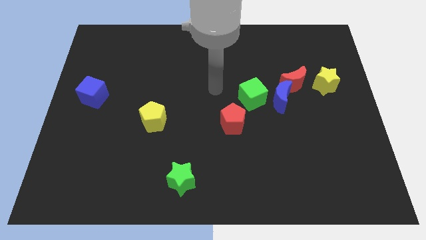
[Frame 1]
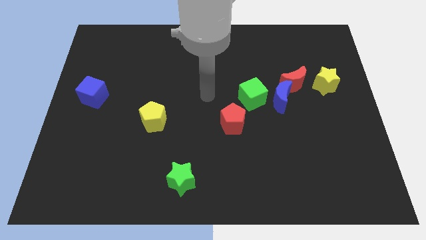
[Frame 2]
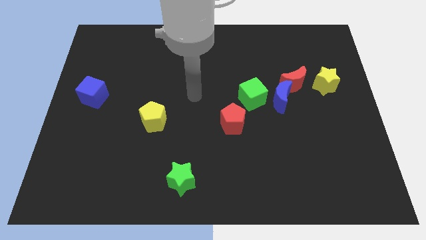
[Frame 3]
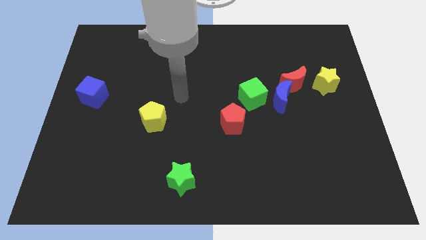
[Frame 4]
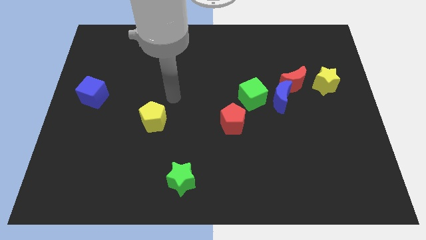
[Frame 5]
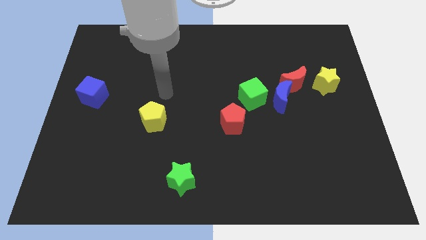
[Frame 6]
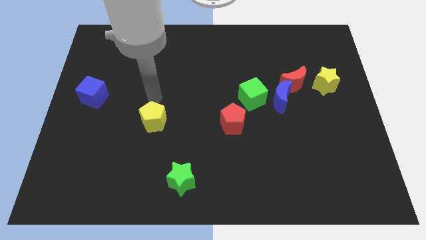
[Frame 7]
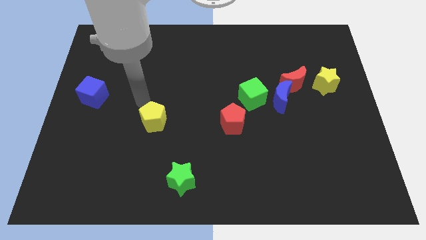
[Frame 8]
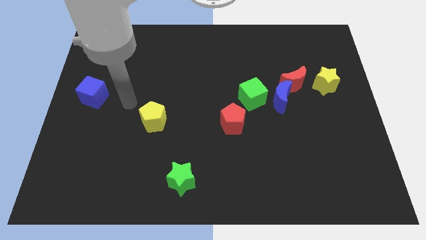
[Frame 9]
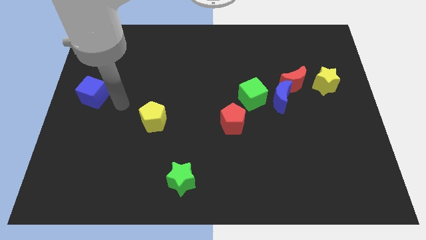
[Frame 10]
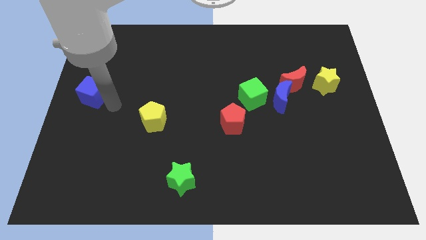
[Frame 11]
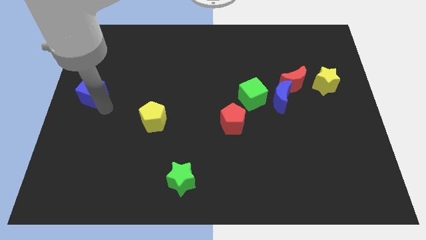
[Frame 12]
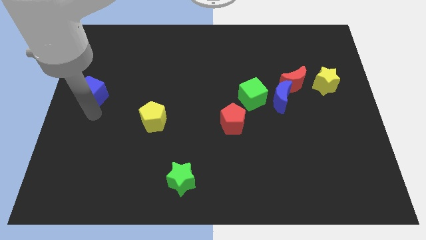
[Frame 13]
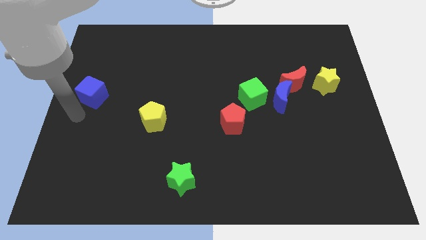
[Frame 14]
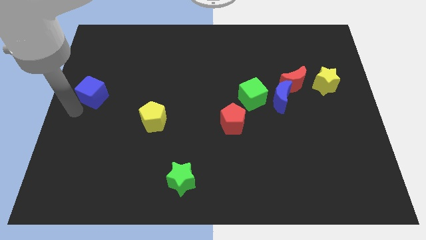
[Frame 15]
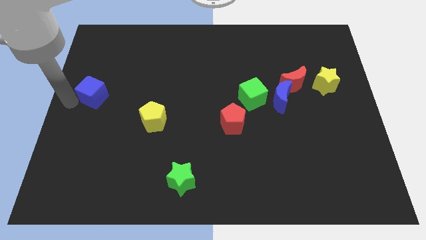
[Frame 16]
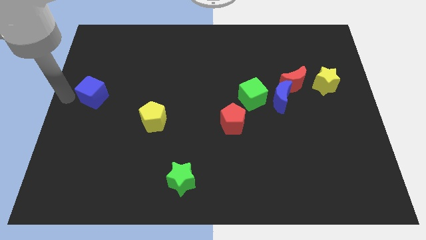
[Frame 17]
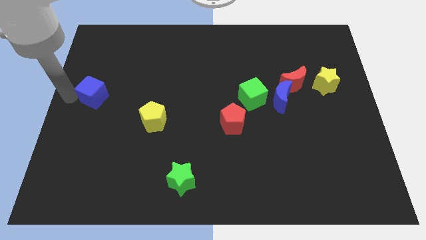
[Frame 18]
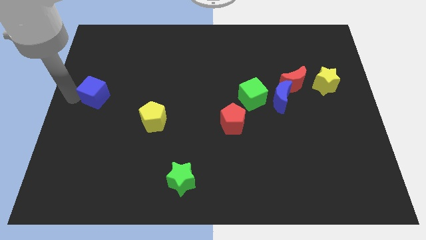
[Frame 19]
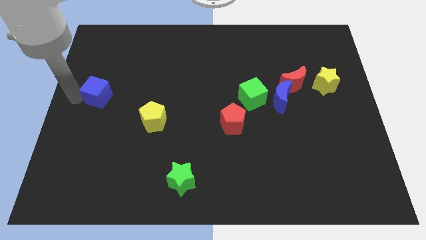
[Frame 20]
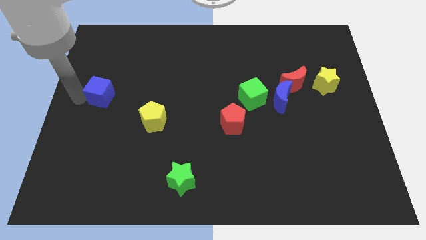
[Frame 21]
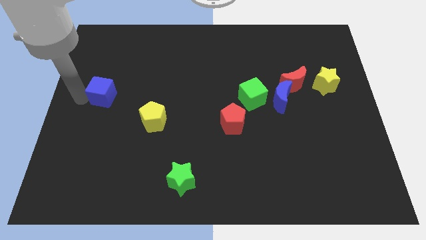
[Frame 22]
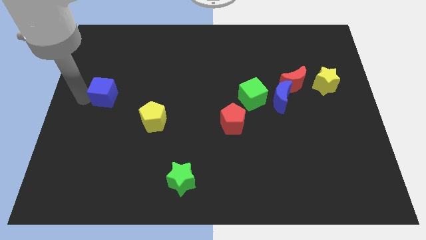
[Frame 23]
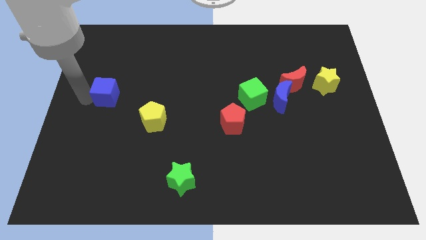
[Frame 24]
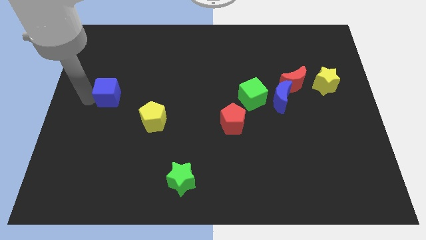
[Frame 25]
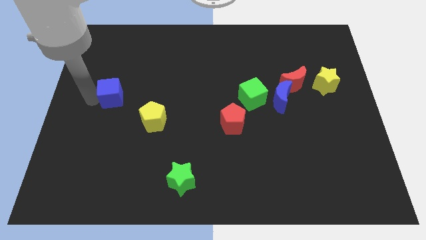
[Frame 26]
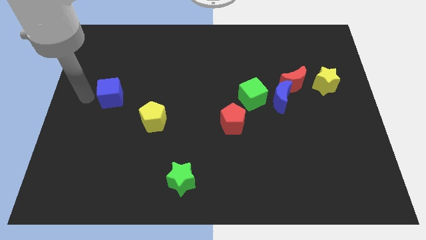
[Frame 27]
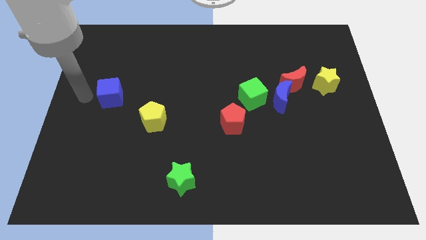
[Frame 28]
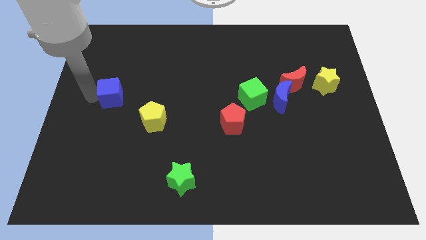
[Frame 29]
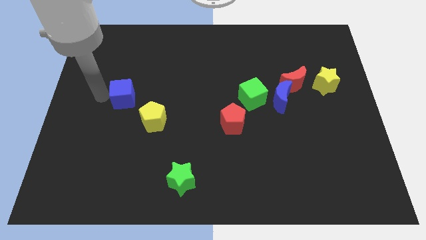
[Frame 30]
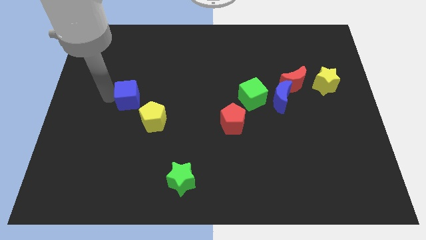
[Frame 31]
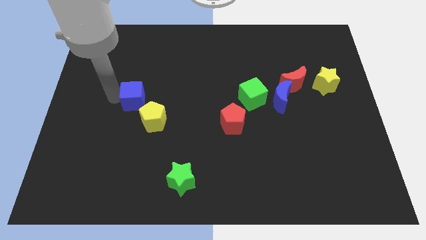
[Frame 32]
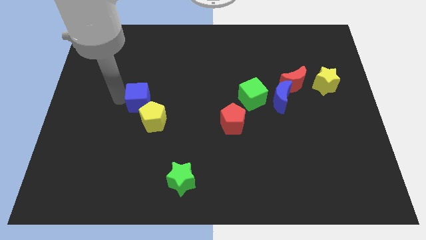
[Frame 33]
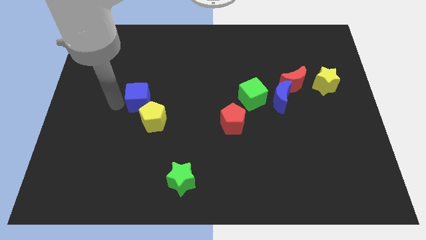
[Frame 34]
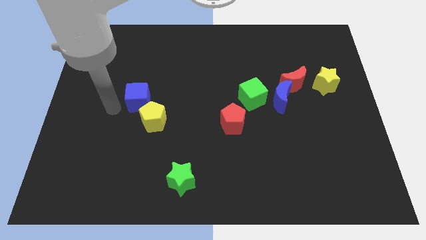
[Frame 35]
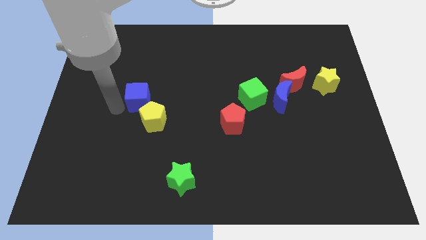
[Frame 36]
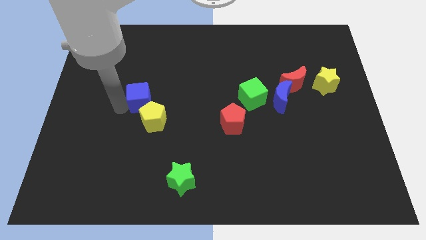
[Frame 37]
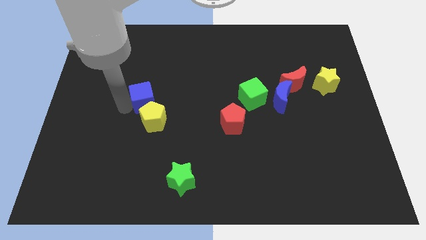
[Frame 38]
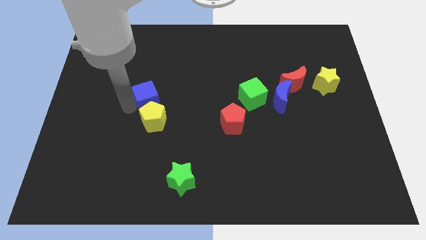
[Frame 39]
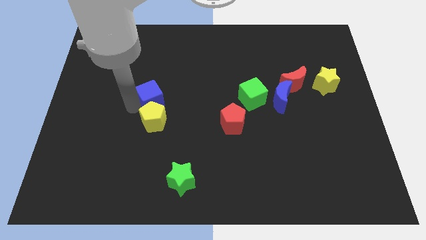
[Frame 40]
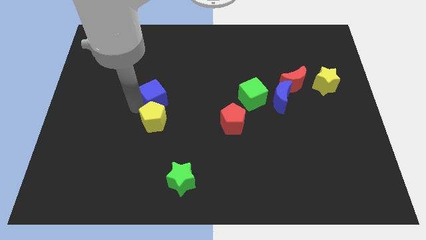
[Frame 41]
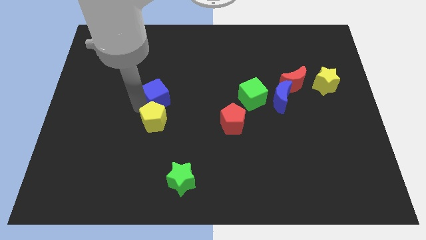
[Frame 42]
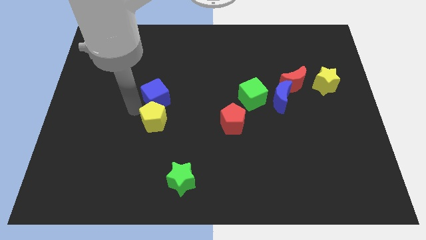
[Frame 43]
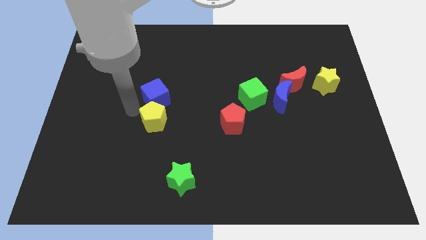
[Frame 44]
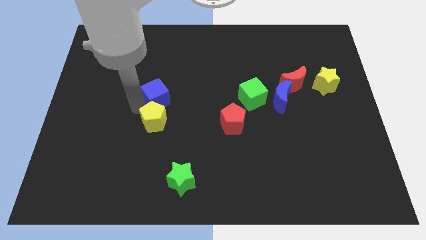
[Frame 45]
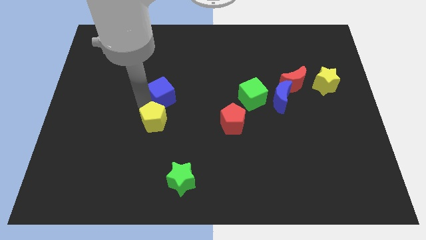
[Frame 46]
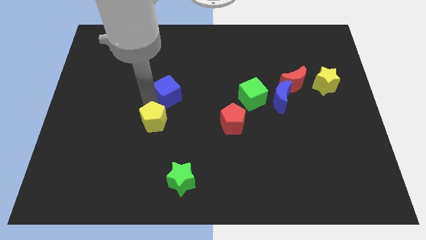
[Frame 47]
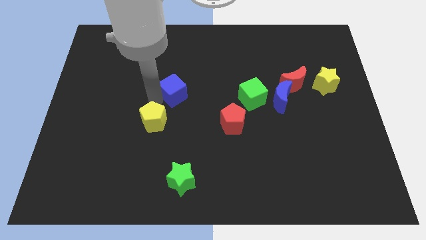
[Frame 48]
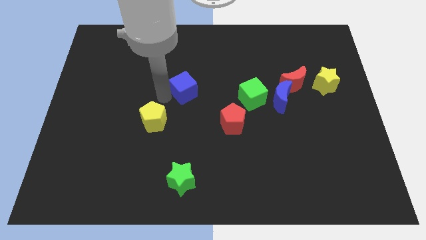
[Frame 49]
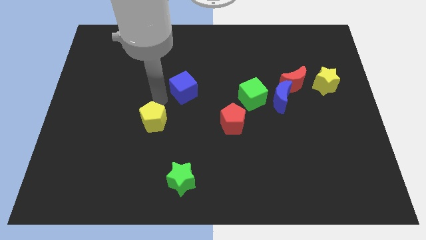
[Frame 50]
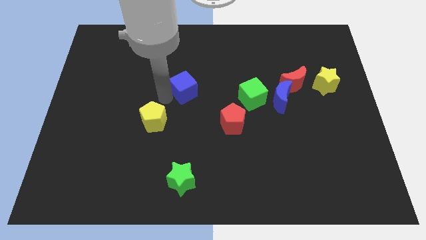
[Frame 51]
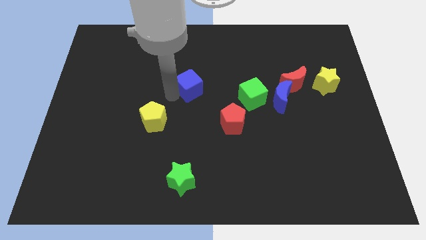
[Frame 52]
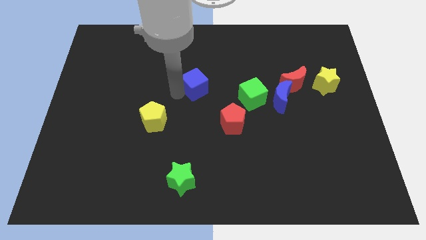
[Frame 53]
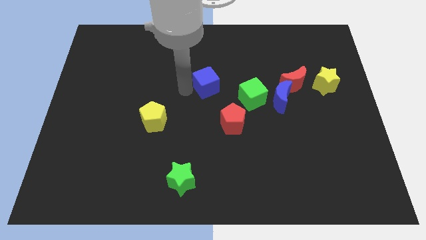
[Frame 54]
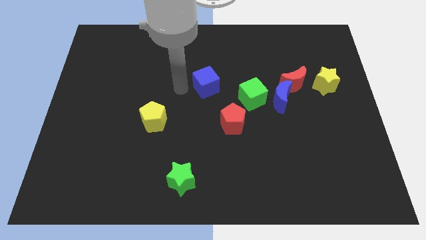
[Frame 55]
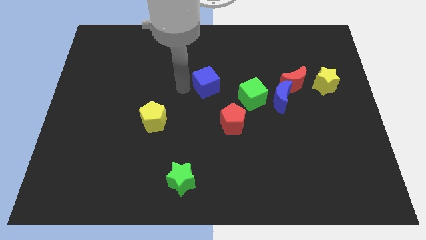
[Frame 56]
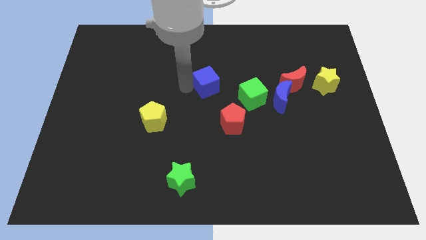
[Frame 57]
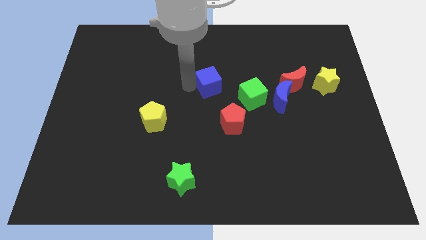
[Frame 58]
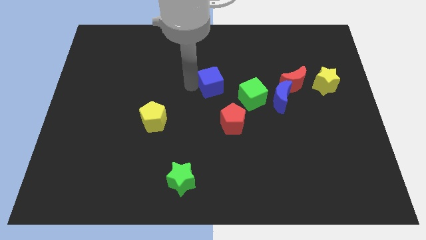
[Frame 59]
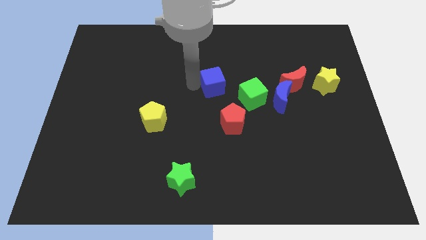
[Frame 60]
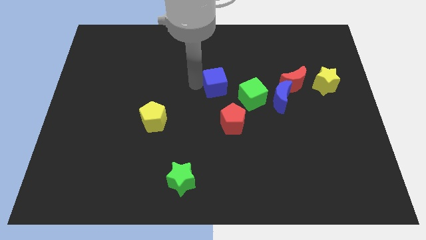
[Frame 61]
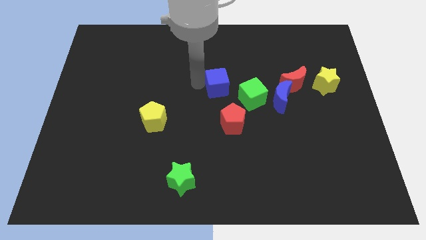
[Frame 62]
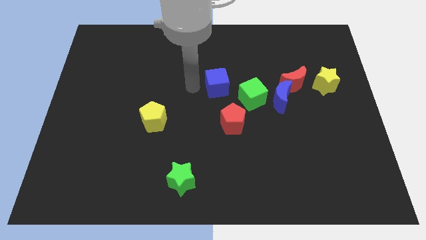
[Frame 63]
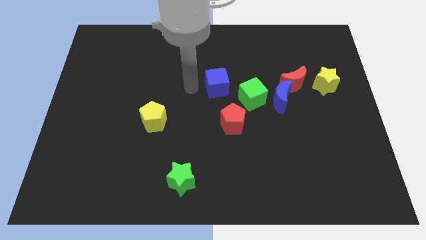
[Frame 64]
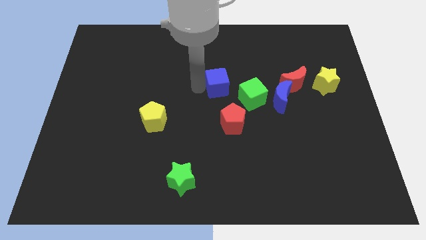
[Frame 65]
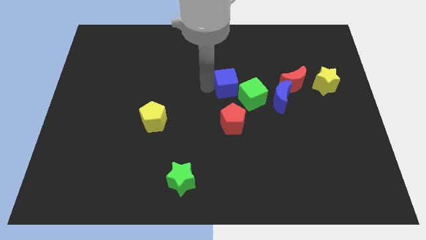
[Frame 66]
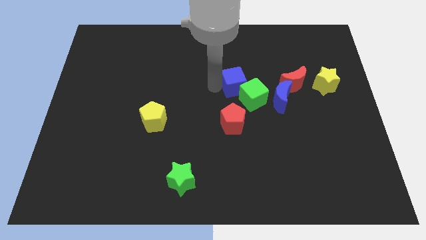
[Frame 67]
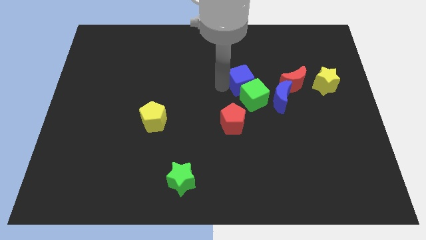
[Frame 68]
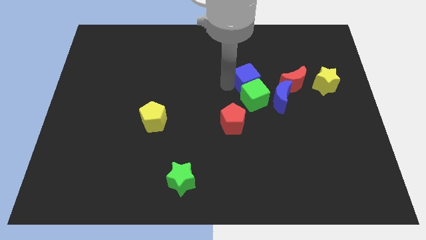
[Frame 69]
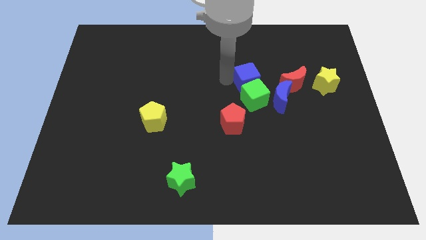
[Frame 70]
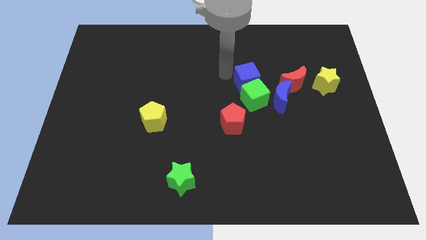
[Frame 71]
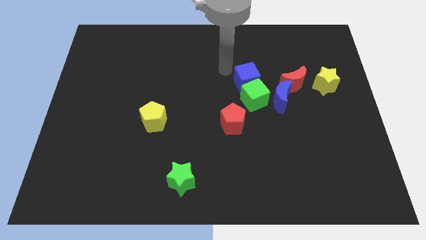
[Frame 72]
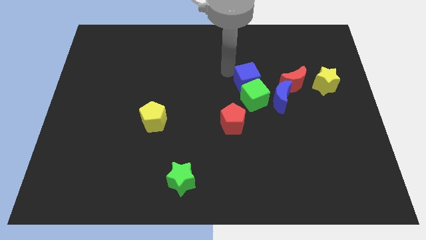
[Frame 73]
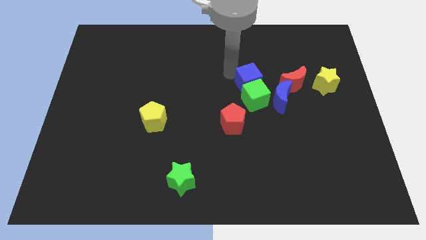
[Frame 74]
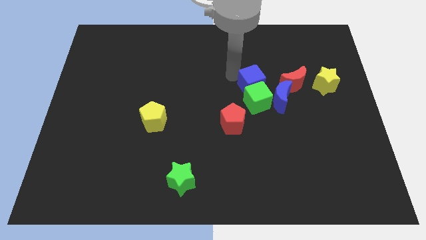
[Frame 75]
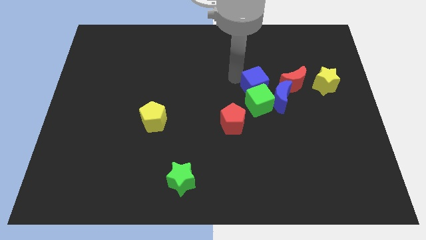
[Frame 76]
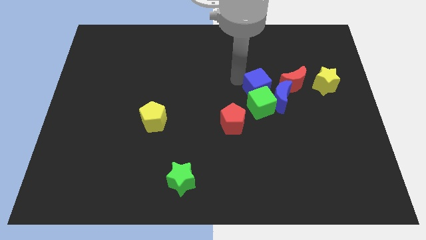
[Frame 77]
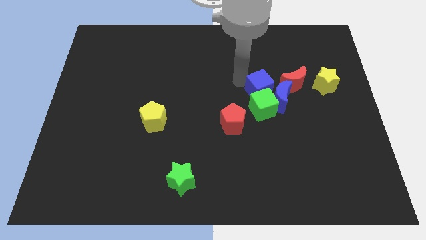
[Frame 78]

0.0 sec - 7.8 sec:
slide the blue cube towards the blue moon

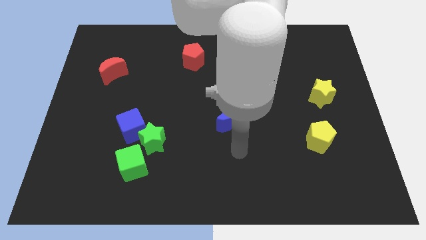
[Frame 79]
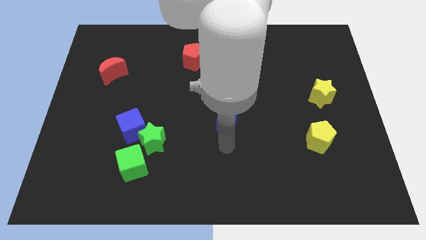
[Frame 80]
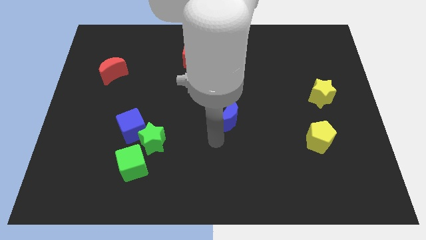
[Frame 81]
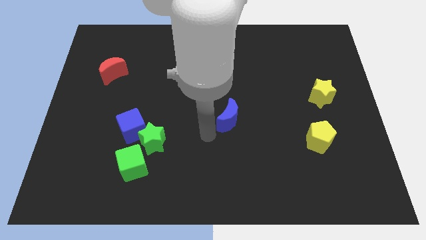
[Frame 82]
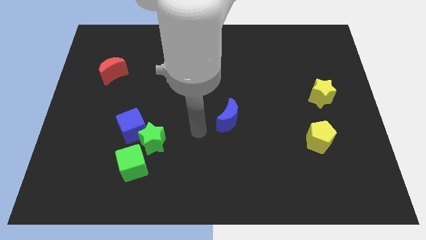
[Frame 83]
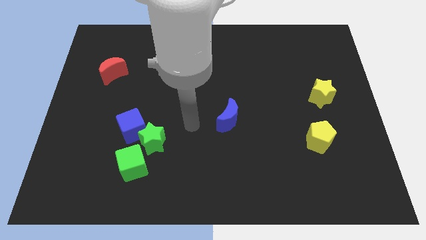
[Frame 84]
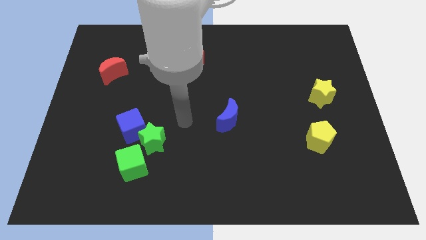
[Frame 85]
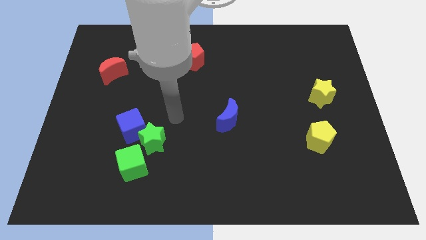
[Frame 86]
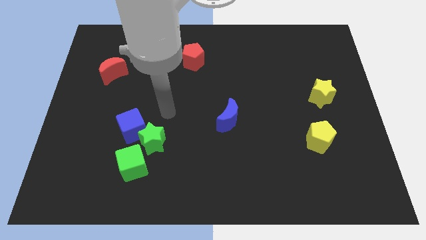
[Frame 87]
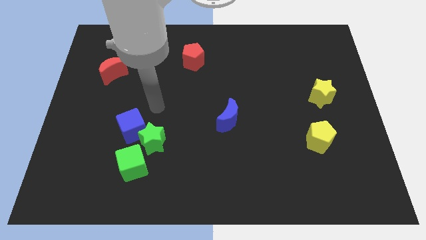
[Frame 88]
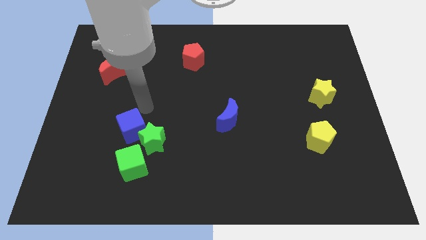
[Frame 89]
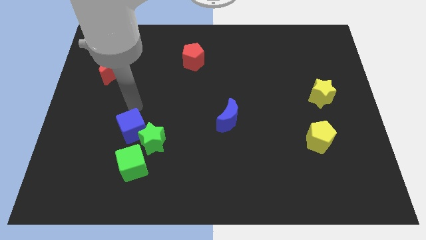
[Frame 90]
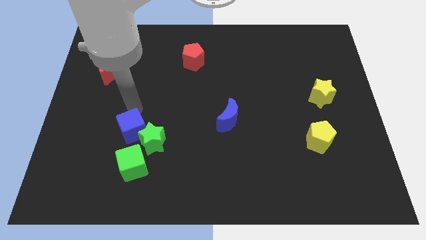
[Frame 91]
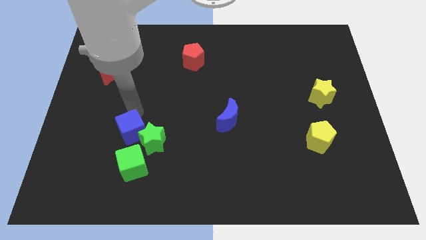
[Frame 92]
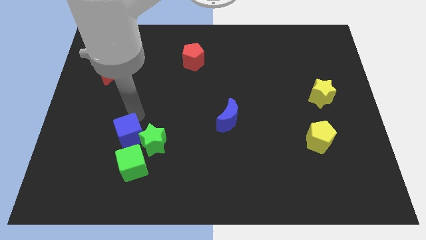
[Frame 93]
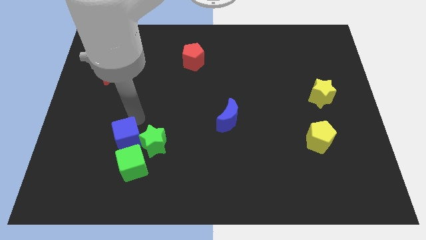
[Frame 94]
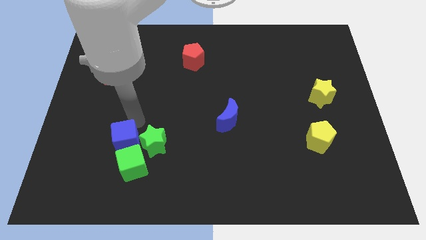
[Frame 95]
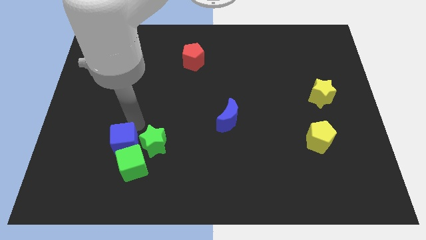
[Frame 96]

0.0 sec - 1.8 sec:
move the blue cube to the green cube
